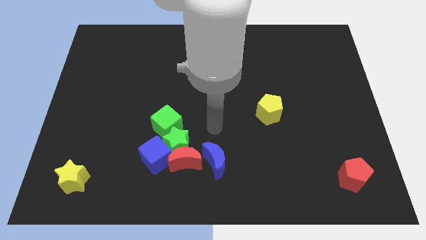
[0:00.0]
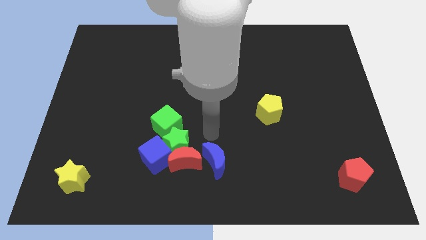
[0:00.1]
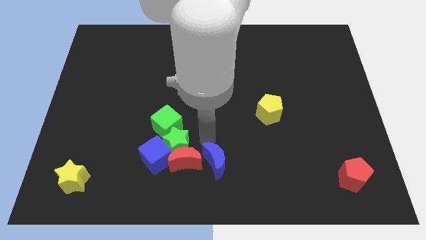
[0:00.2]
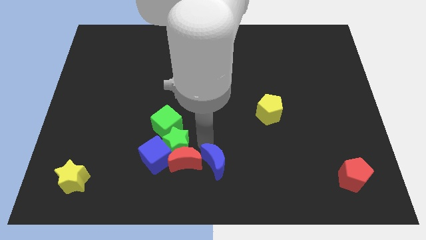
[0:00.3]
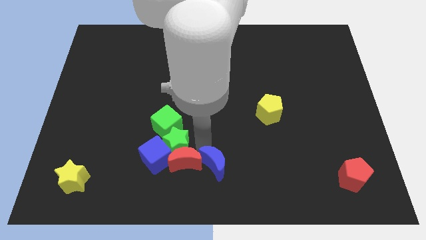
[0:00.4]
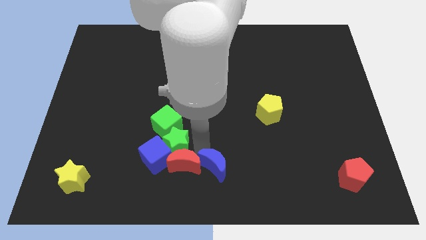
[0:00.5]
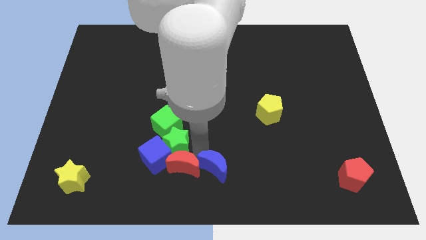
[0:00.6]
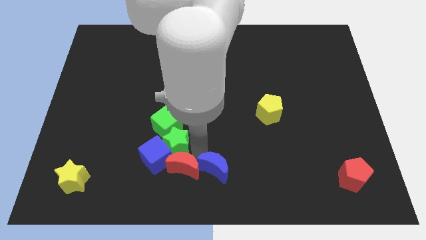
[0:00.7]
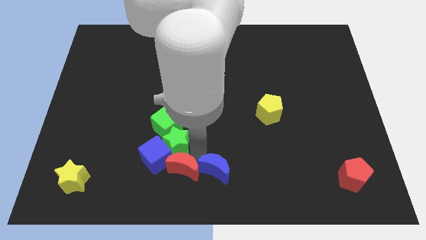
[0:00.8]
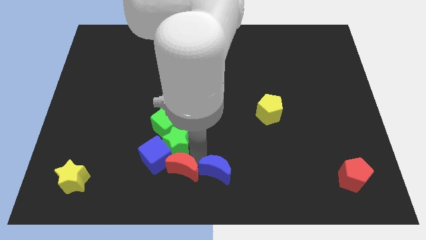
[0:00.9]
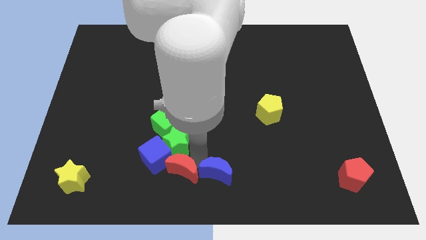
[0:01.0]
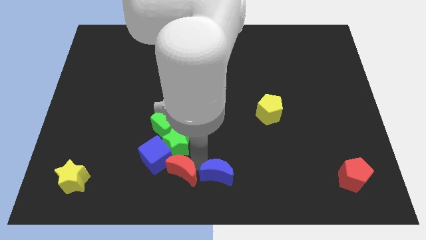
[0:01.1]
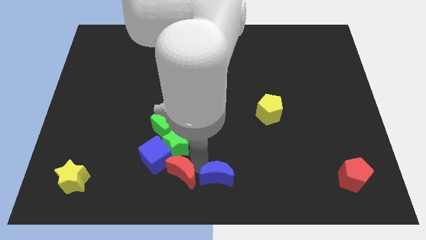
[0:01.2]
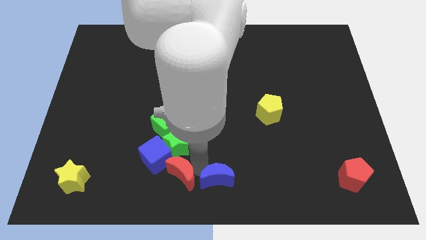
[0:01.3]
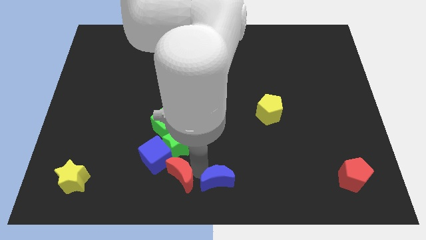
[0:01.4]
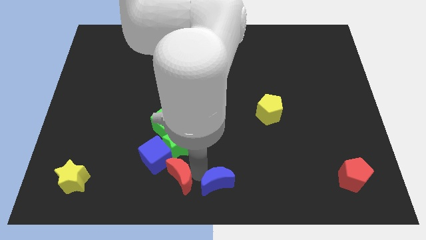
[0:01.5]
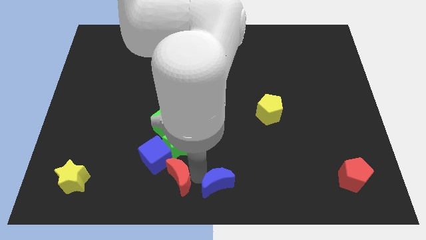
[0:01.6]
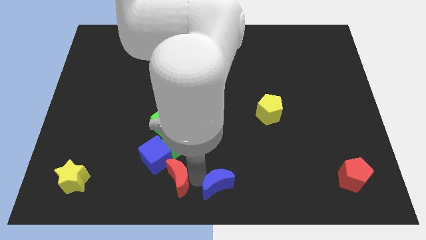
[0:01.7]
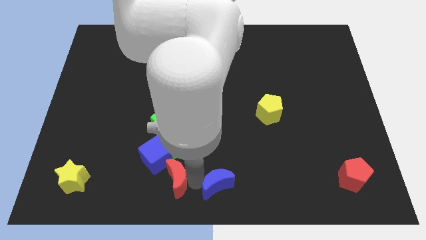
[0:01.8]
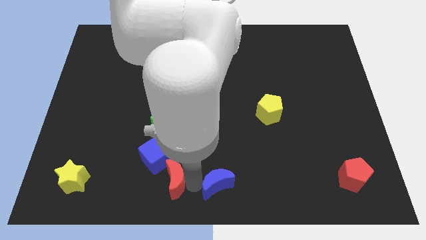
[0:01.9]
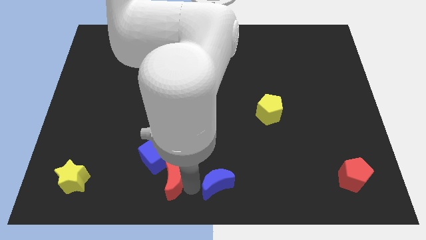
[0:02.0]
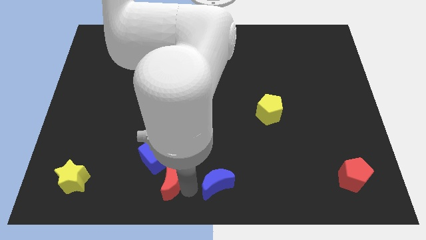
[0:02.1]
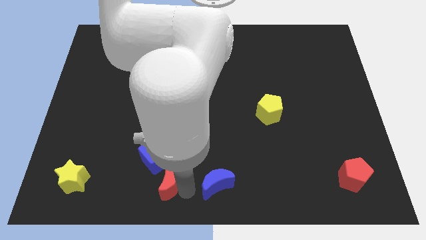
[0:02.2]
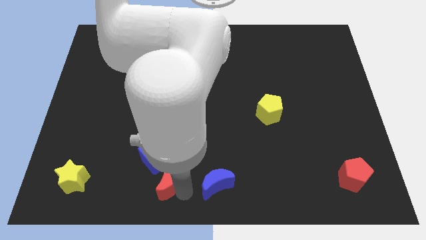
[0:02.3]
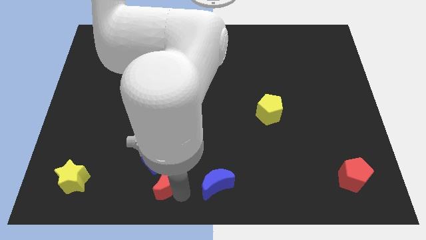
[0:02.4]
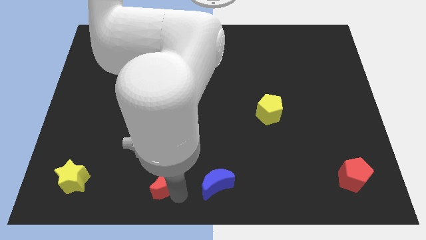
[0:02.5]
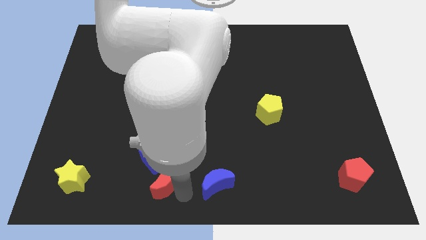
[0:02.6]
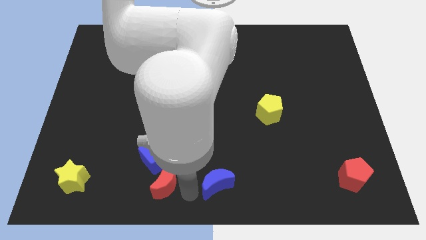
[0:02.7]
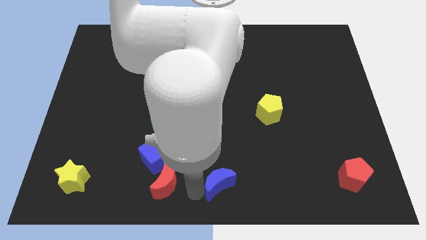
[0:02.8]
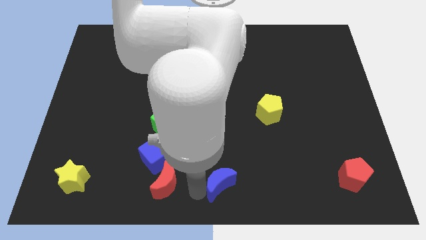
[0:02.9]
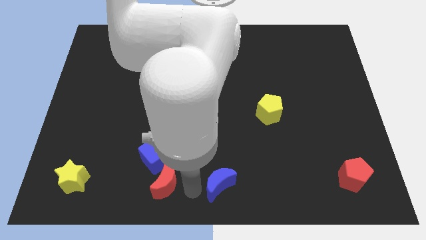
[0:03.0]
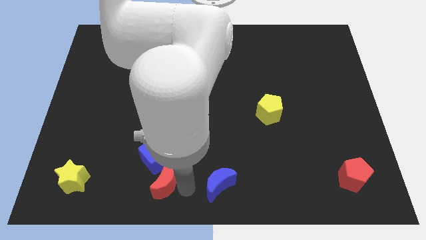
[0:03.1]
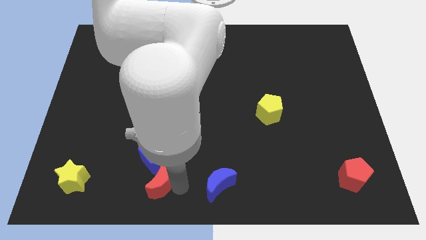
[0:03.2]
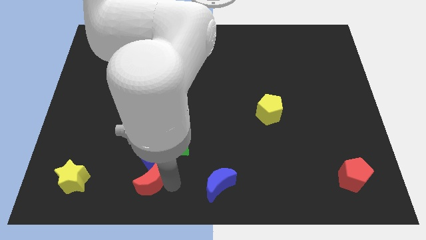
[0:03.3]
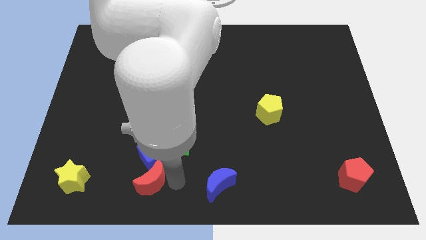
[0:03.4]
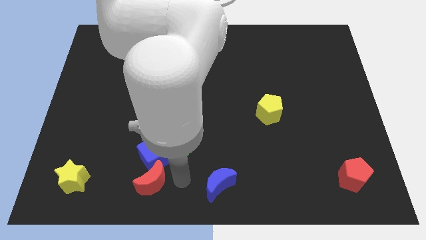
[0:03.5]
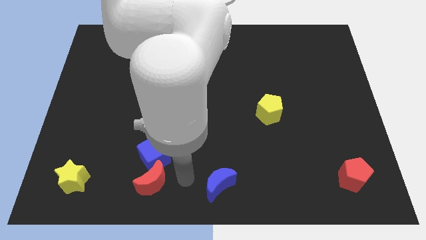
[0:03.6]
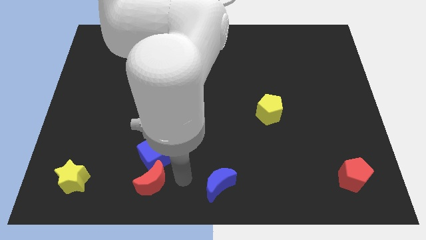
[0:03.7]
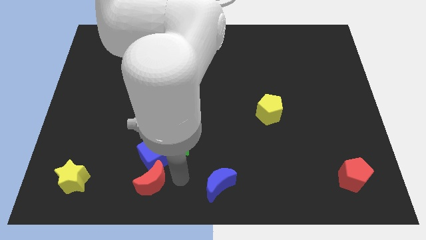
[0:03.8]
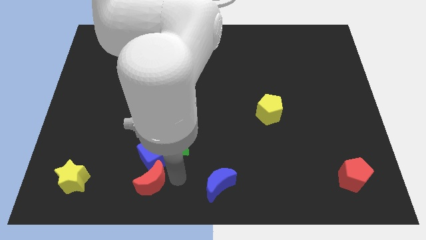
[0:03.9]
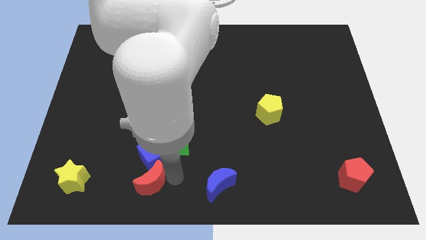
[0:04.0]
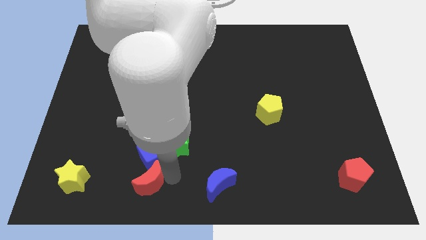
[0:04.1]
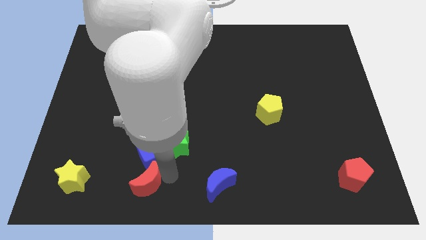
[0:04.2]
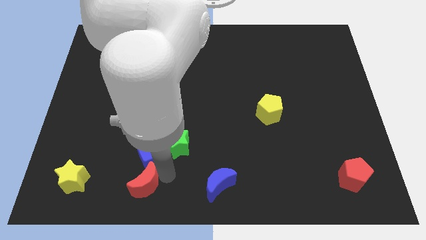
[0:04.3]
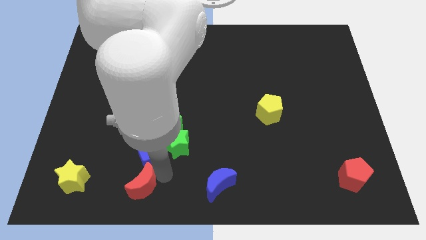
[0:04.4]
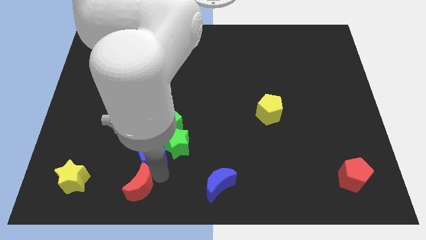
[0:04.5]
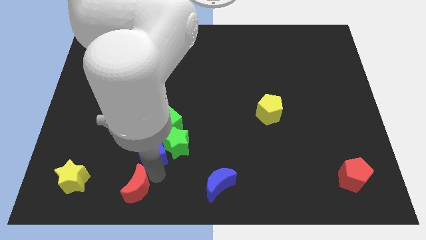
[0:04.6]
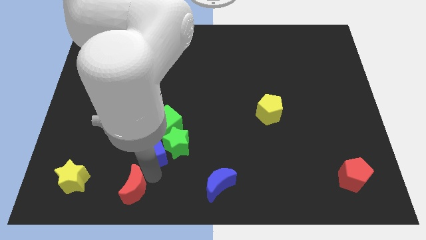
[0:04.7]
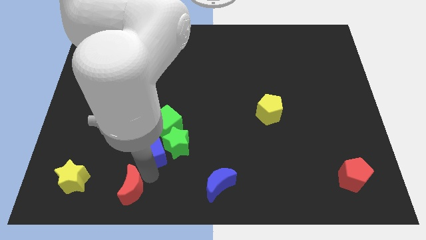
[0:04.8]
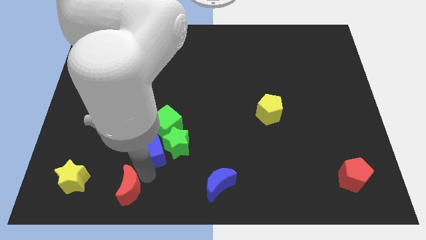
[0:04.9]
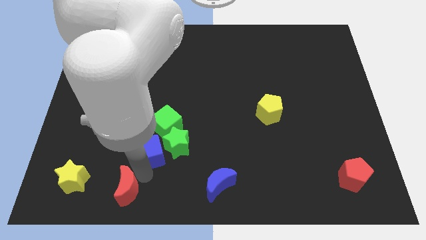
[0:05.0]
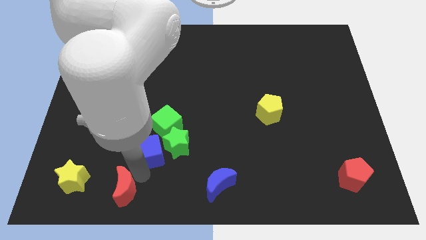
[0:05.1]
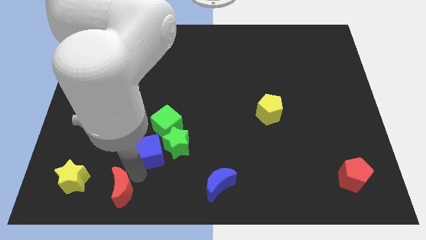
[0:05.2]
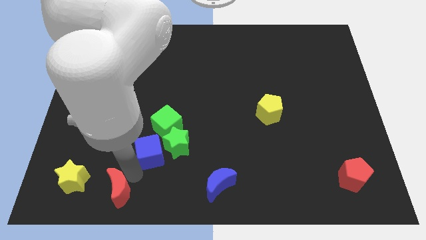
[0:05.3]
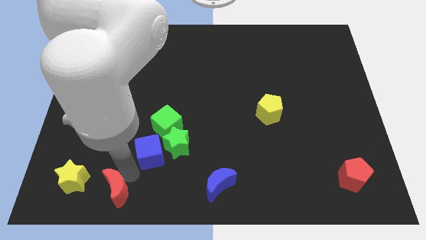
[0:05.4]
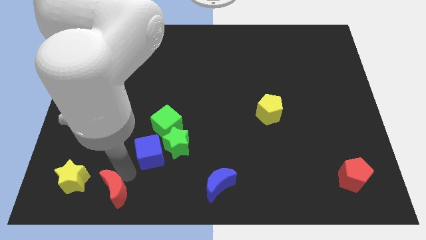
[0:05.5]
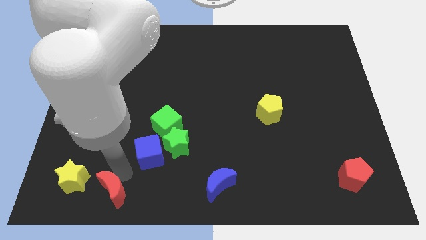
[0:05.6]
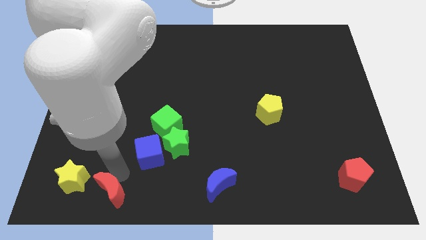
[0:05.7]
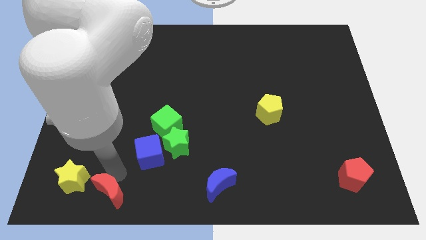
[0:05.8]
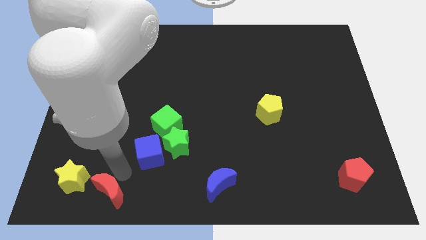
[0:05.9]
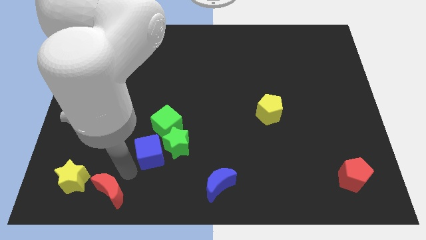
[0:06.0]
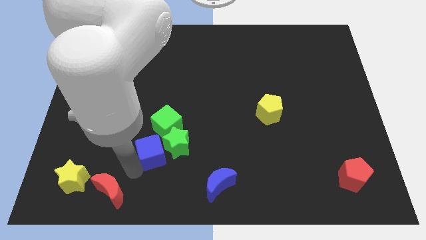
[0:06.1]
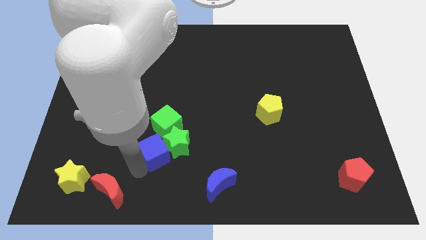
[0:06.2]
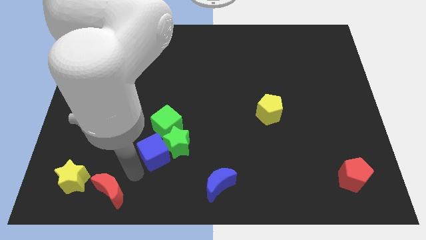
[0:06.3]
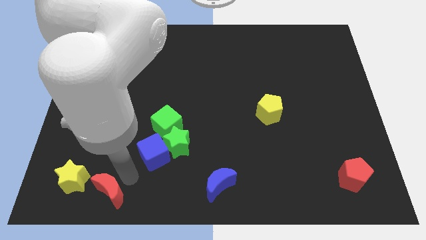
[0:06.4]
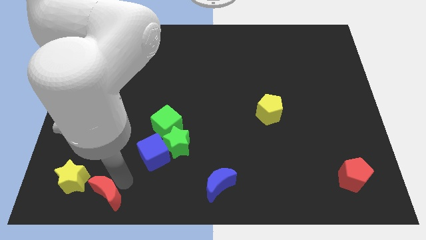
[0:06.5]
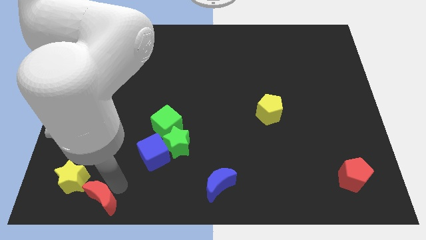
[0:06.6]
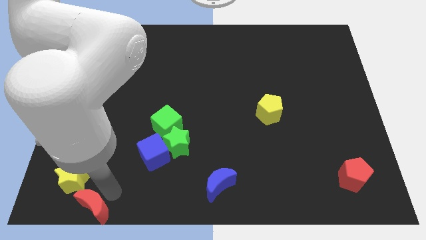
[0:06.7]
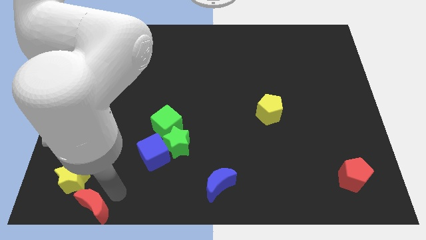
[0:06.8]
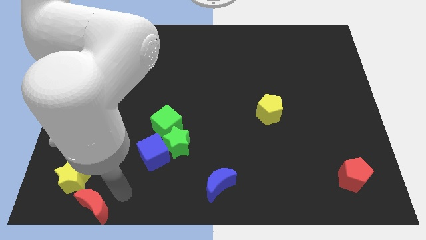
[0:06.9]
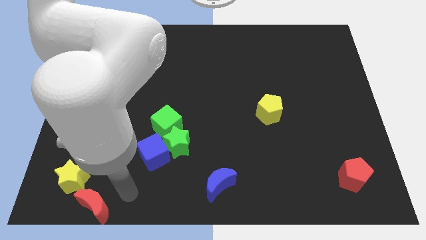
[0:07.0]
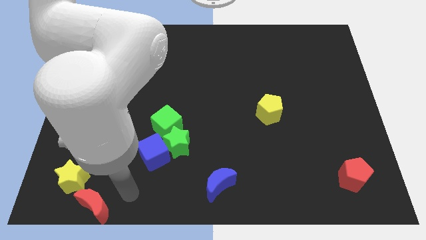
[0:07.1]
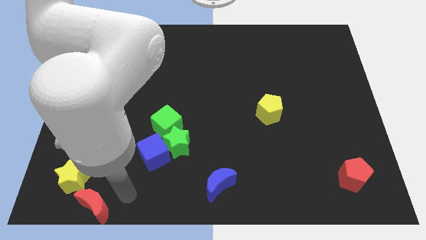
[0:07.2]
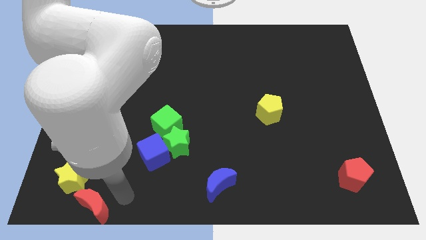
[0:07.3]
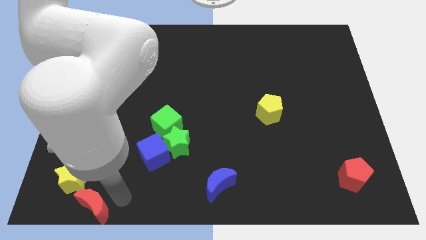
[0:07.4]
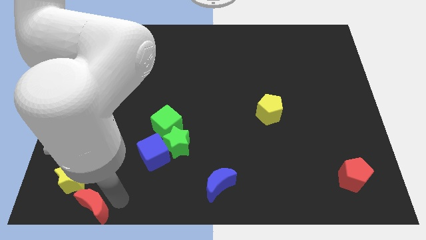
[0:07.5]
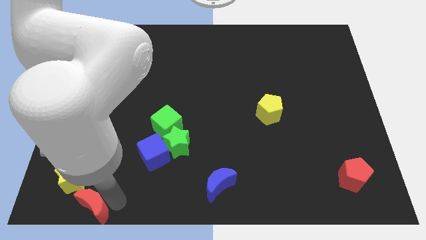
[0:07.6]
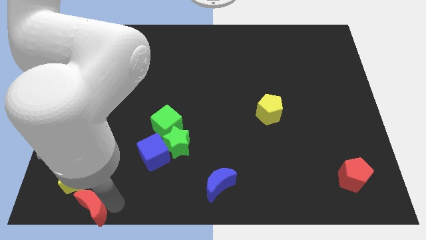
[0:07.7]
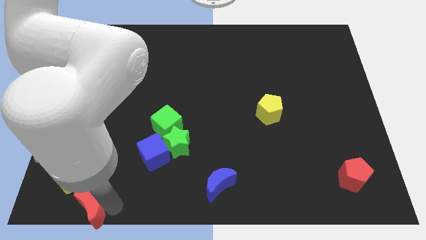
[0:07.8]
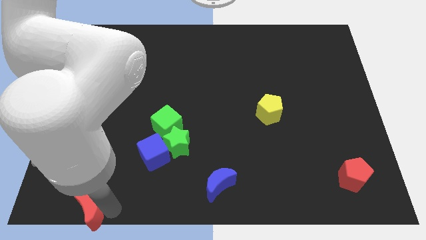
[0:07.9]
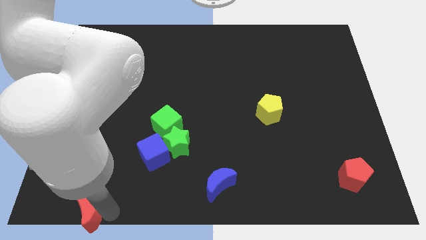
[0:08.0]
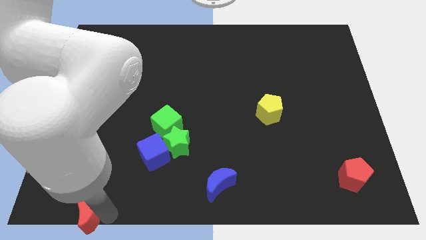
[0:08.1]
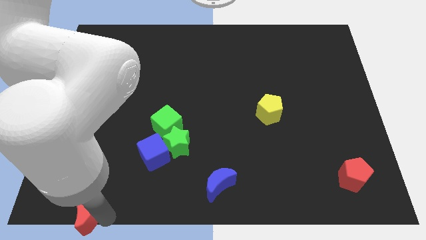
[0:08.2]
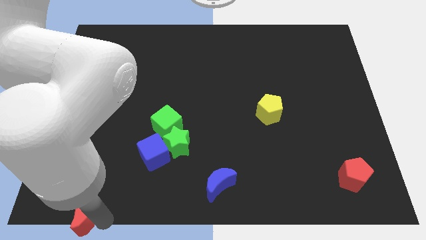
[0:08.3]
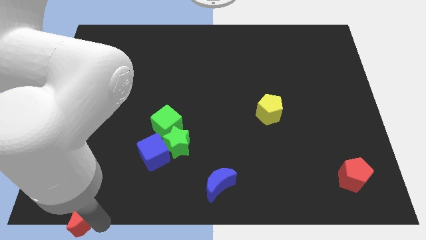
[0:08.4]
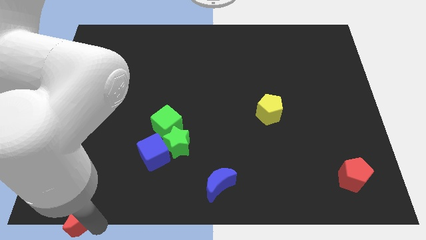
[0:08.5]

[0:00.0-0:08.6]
move the red moon to the bottom left
